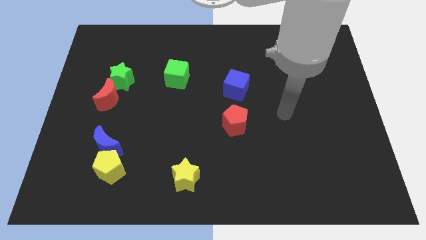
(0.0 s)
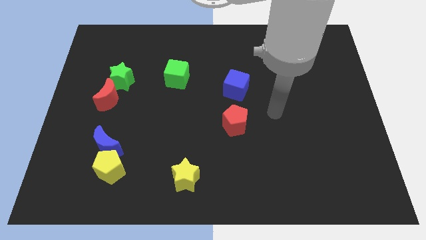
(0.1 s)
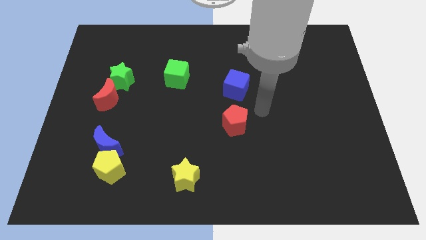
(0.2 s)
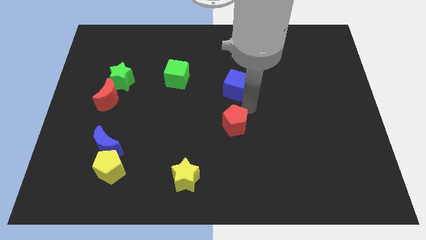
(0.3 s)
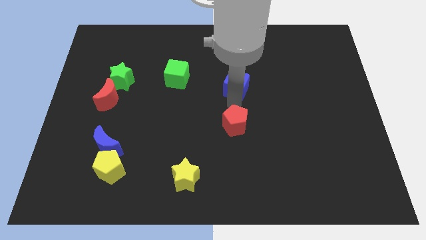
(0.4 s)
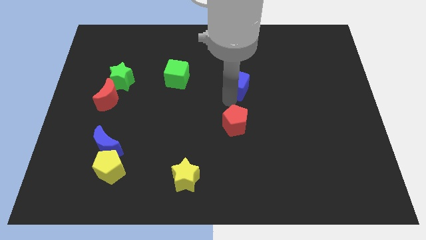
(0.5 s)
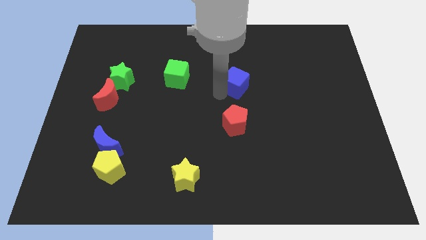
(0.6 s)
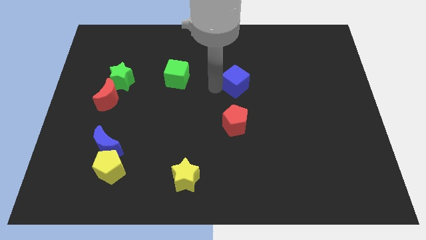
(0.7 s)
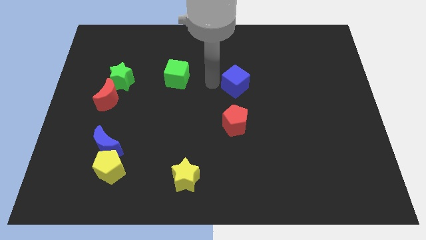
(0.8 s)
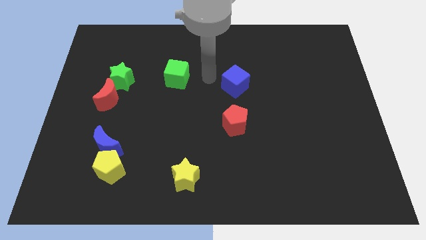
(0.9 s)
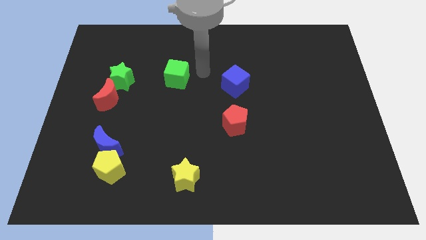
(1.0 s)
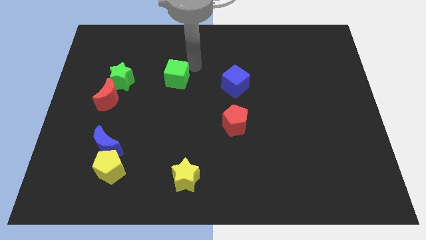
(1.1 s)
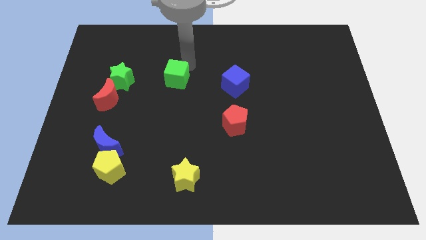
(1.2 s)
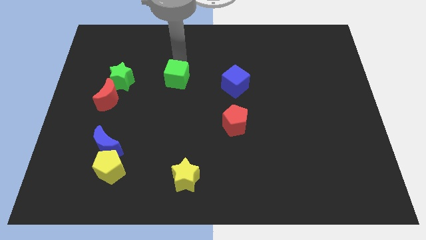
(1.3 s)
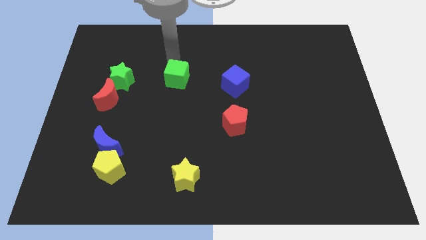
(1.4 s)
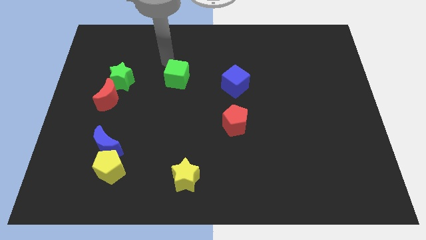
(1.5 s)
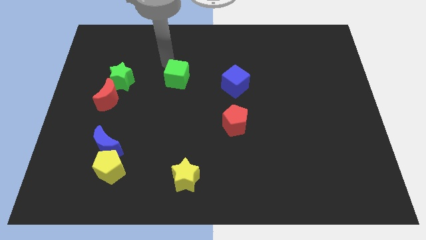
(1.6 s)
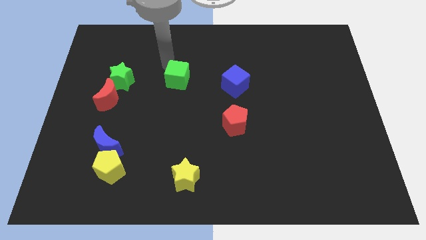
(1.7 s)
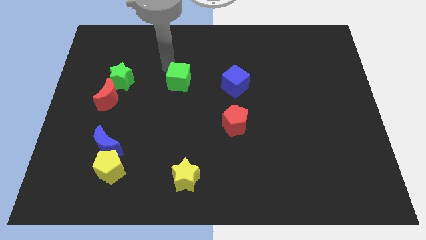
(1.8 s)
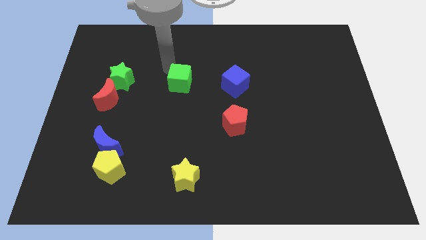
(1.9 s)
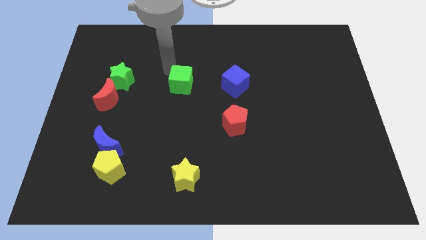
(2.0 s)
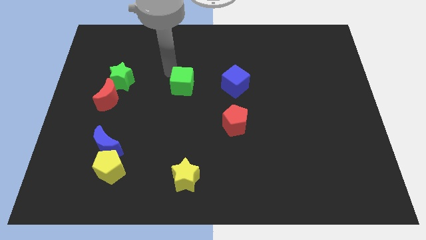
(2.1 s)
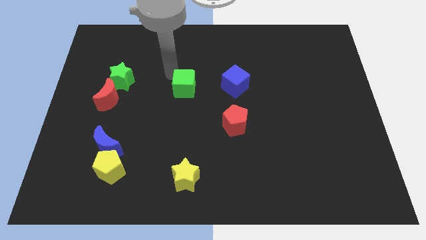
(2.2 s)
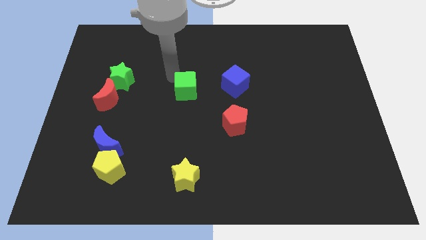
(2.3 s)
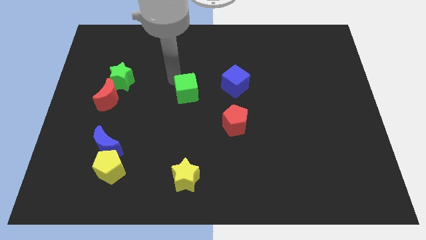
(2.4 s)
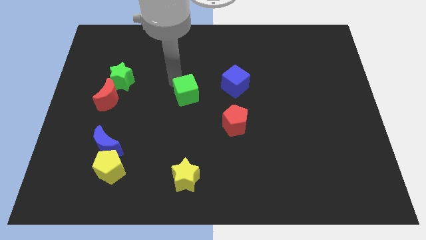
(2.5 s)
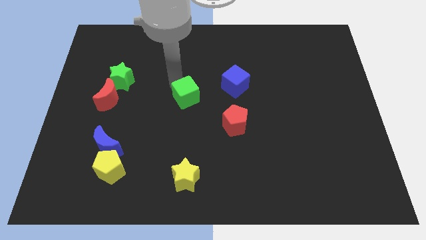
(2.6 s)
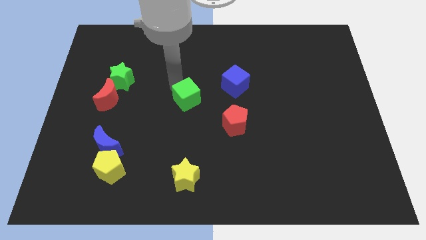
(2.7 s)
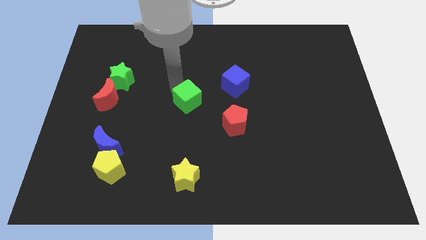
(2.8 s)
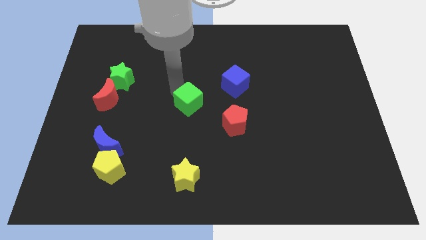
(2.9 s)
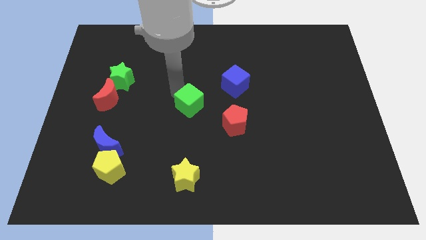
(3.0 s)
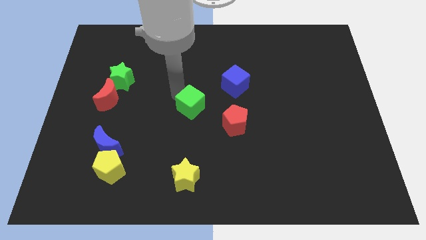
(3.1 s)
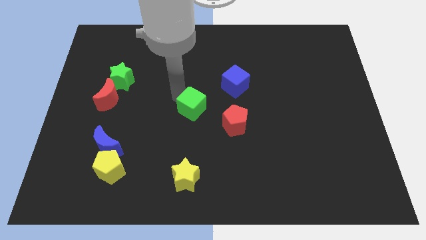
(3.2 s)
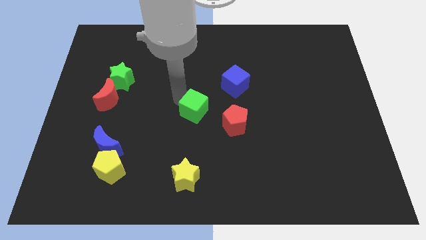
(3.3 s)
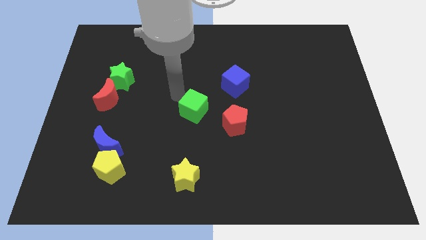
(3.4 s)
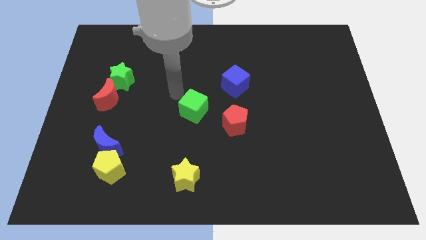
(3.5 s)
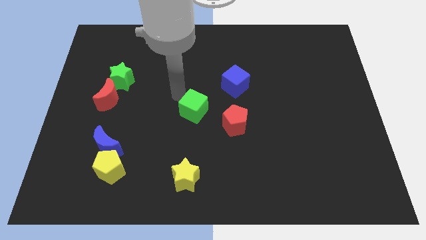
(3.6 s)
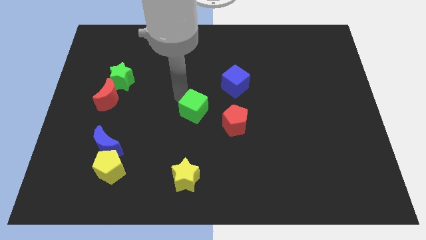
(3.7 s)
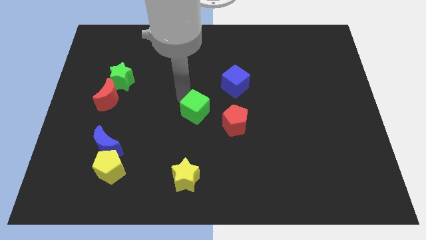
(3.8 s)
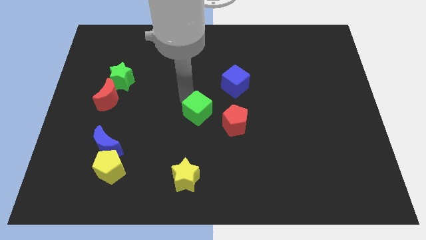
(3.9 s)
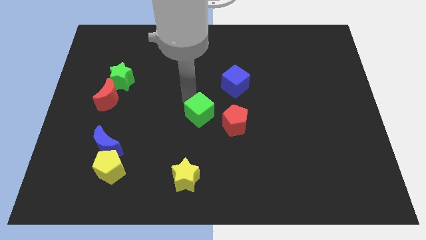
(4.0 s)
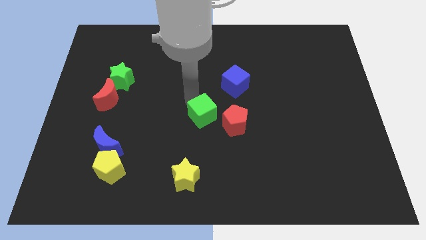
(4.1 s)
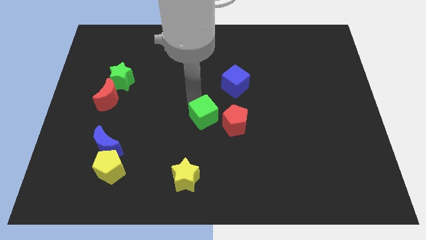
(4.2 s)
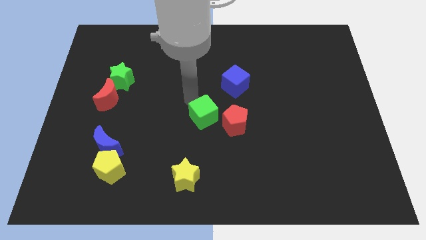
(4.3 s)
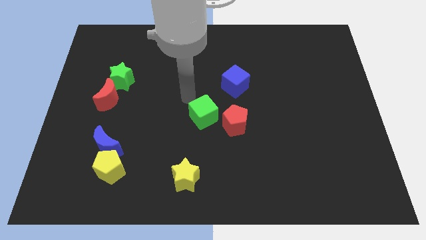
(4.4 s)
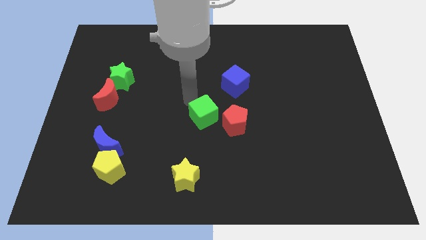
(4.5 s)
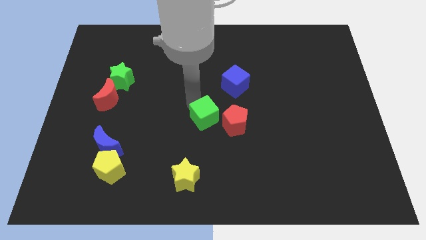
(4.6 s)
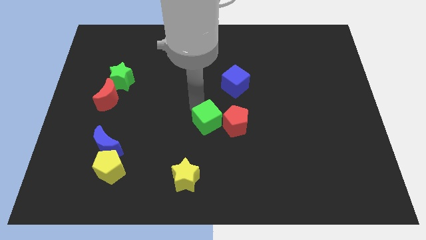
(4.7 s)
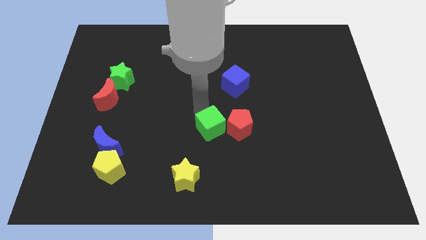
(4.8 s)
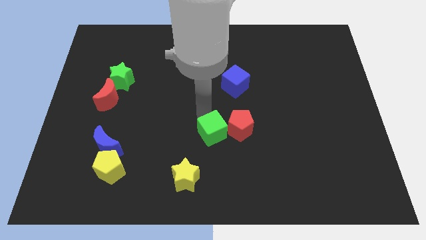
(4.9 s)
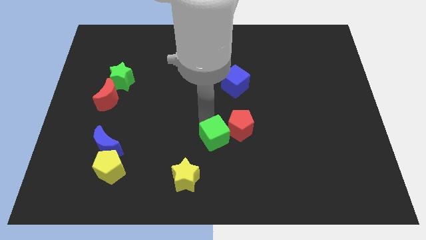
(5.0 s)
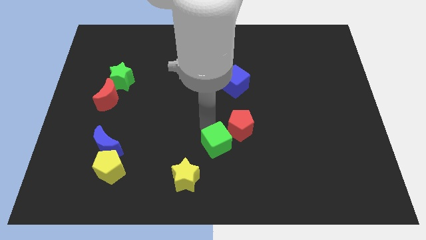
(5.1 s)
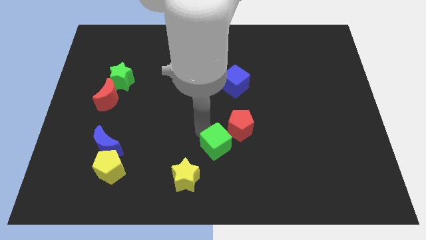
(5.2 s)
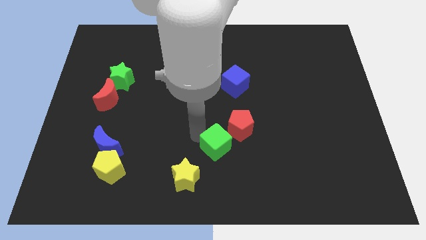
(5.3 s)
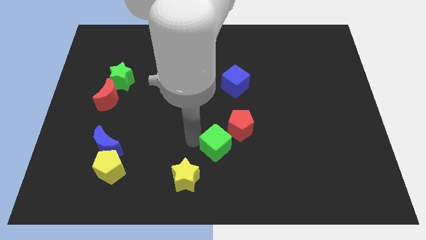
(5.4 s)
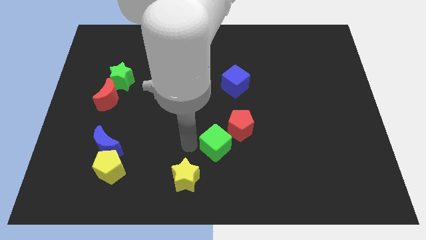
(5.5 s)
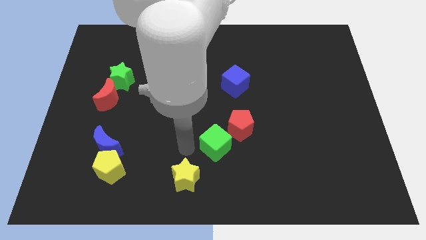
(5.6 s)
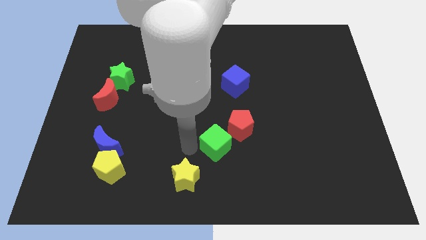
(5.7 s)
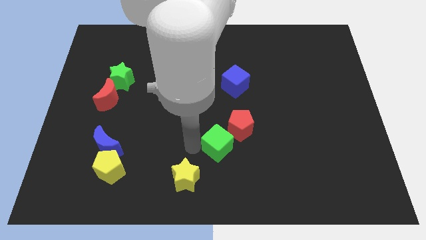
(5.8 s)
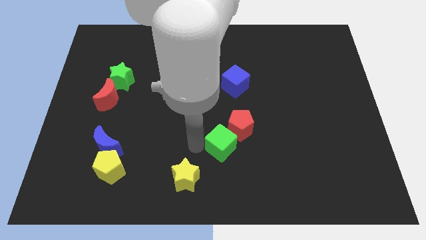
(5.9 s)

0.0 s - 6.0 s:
push the green cube downwards and then right

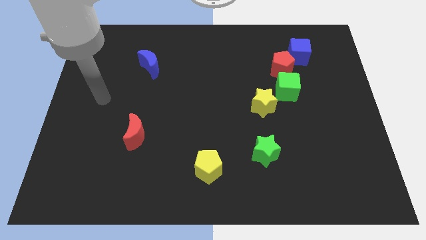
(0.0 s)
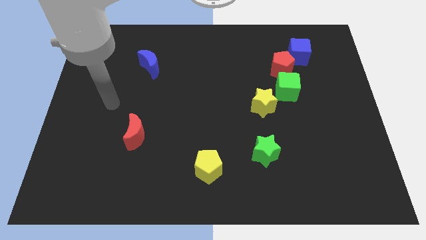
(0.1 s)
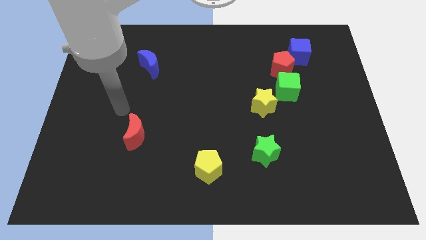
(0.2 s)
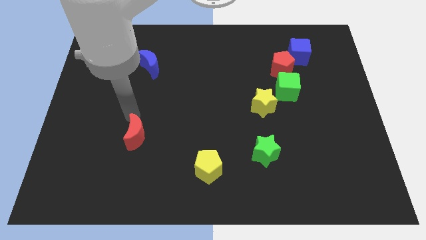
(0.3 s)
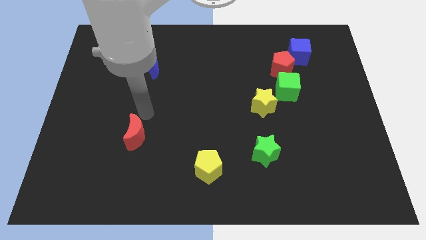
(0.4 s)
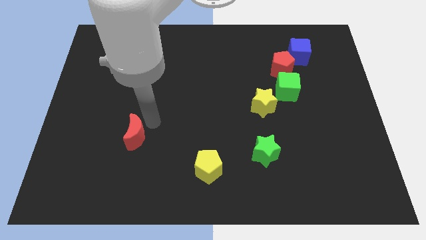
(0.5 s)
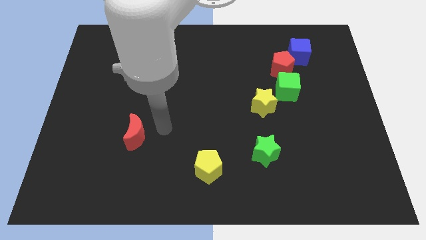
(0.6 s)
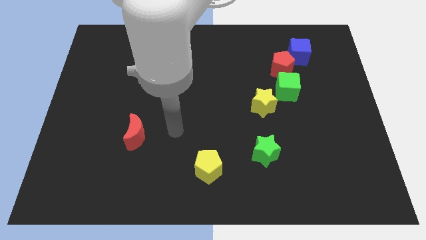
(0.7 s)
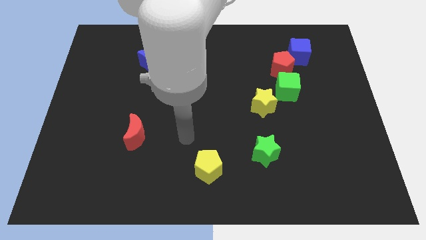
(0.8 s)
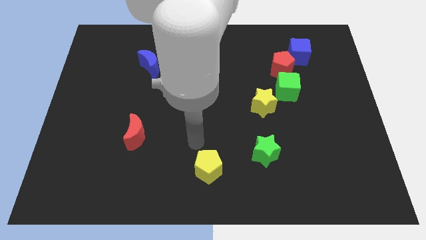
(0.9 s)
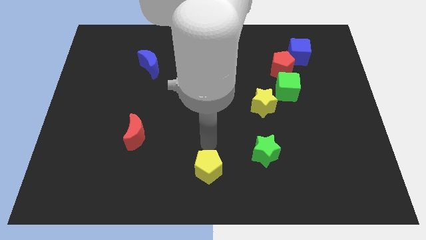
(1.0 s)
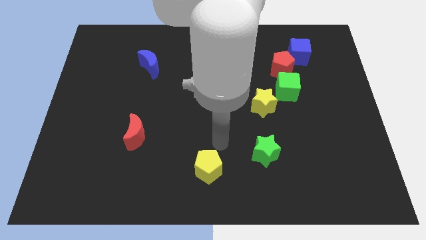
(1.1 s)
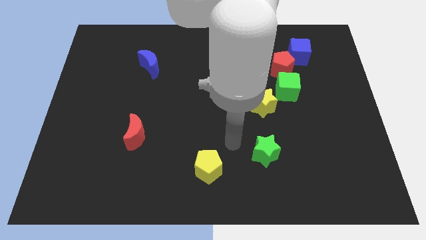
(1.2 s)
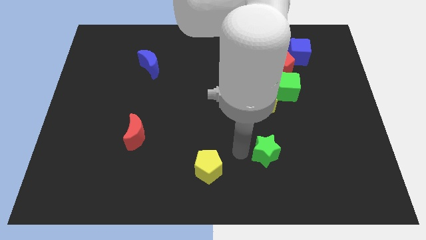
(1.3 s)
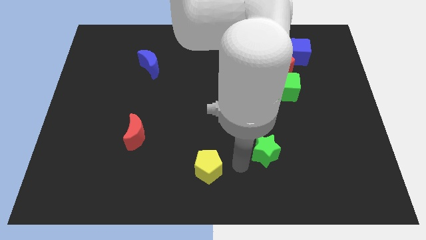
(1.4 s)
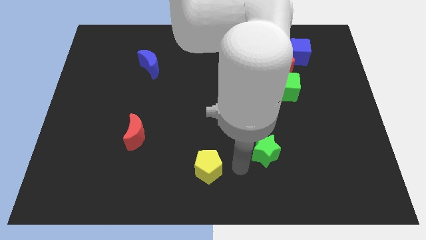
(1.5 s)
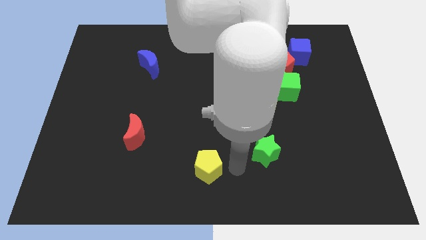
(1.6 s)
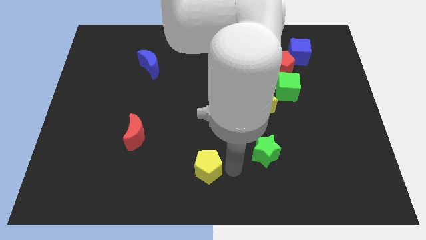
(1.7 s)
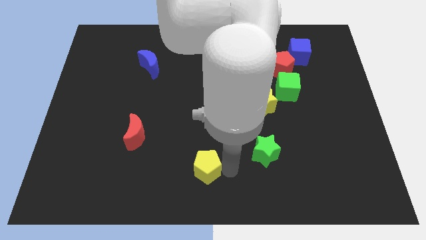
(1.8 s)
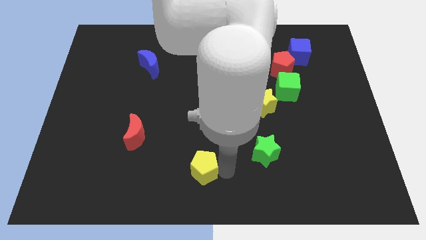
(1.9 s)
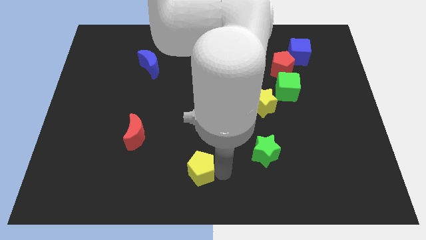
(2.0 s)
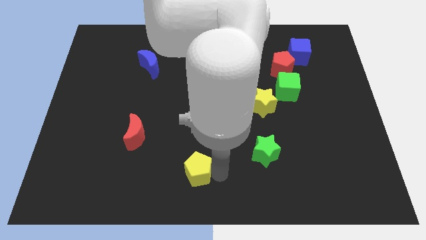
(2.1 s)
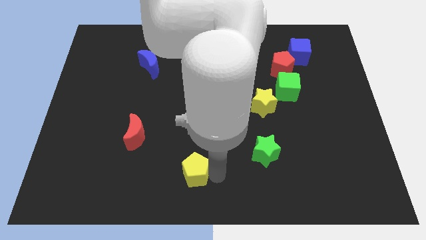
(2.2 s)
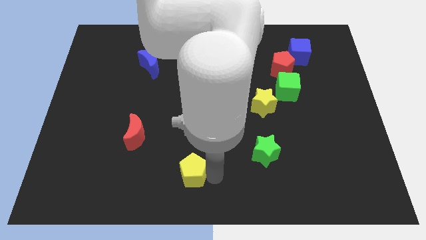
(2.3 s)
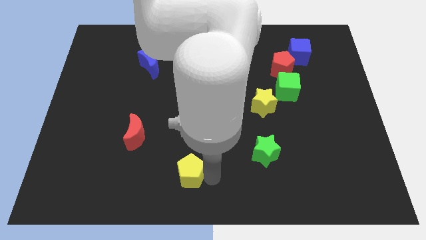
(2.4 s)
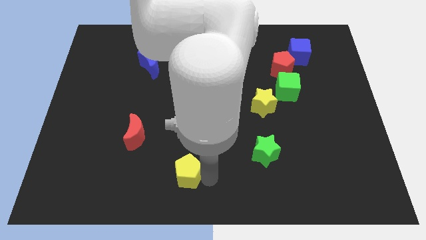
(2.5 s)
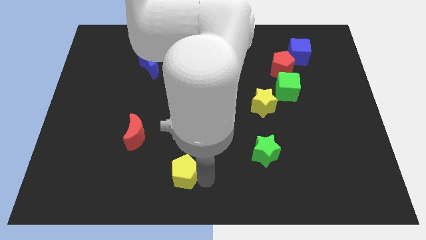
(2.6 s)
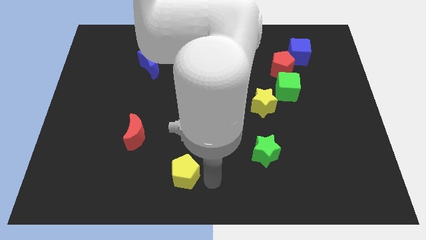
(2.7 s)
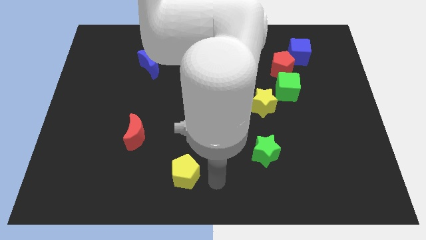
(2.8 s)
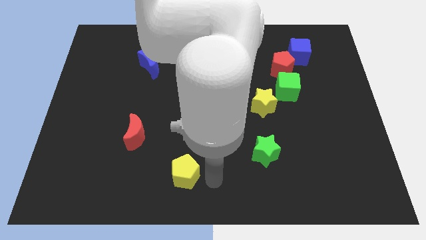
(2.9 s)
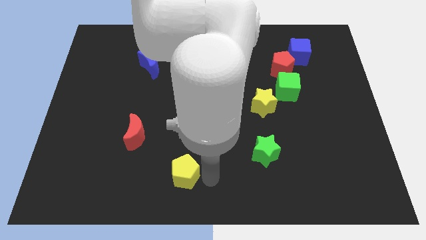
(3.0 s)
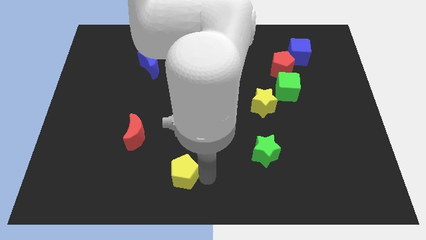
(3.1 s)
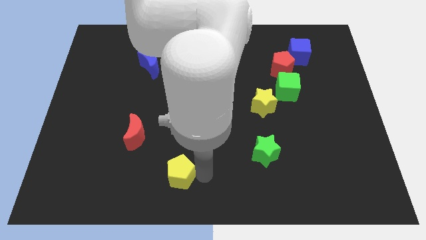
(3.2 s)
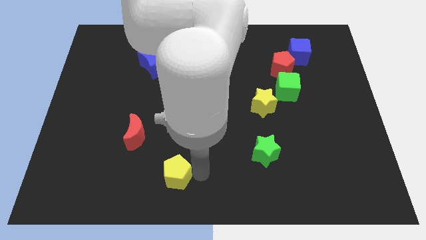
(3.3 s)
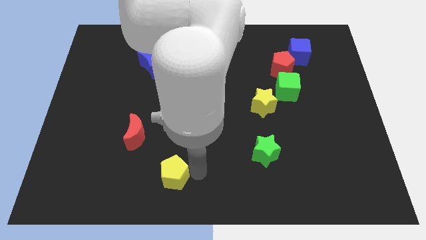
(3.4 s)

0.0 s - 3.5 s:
slide the yellow pentagon left somewhat
